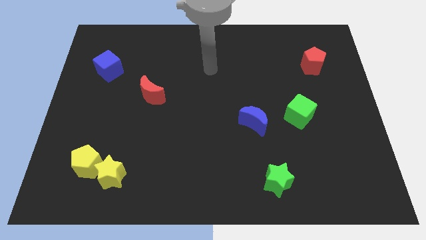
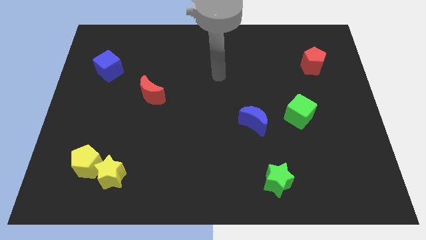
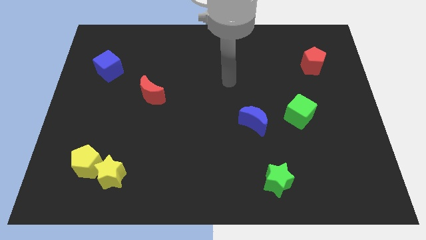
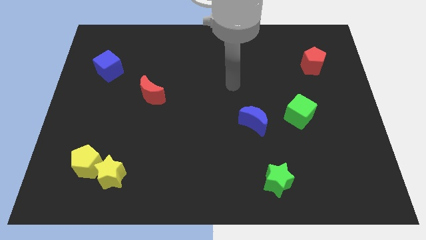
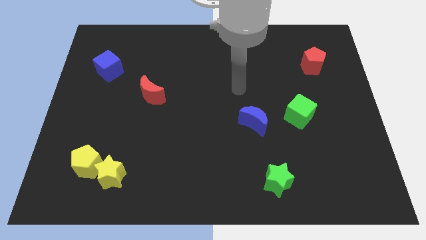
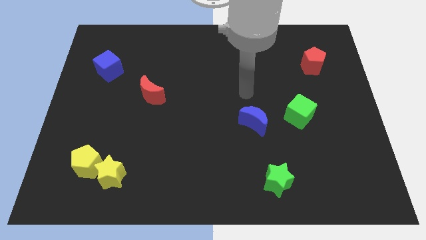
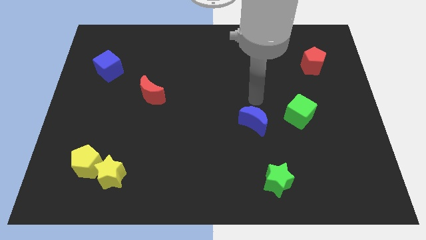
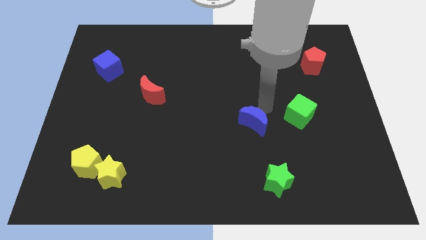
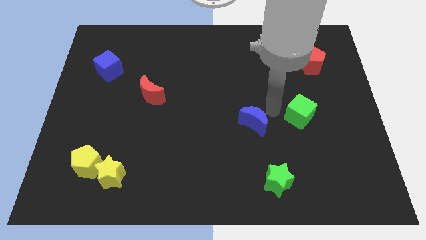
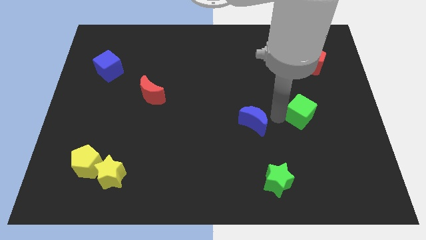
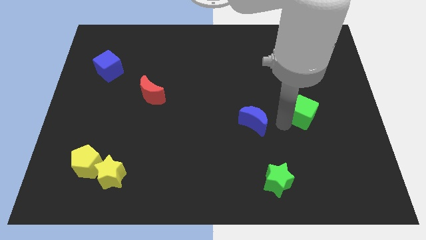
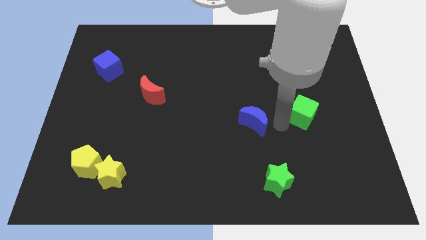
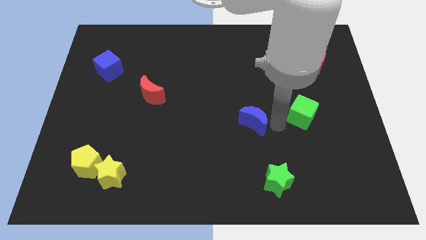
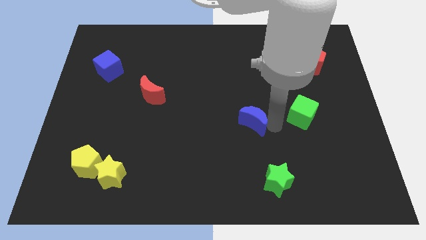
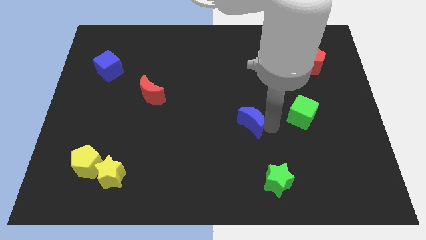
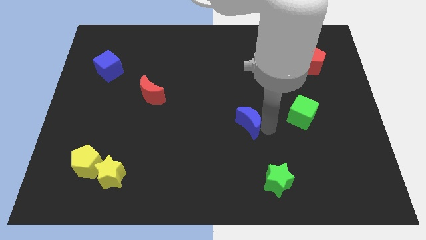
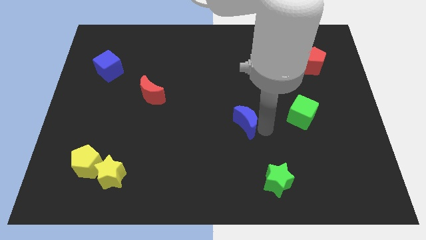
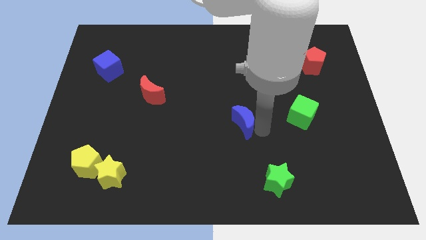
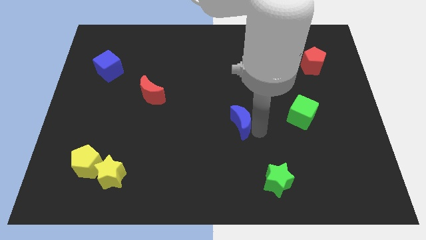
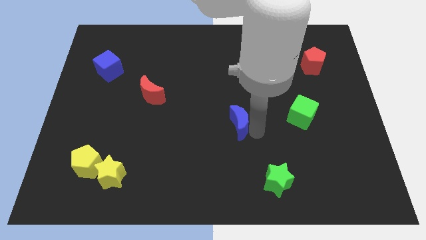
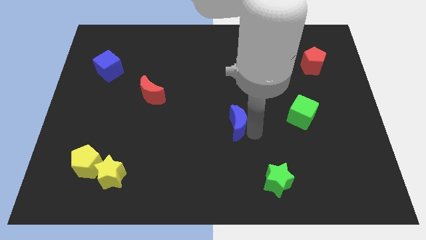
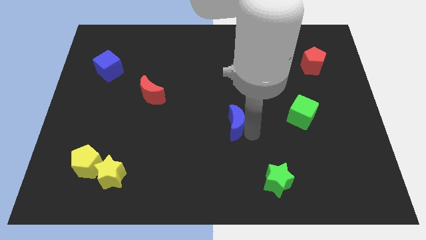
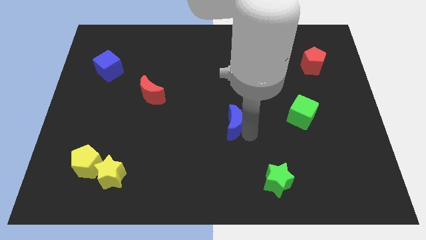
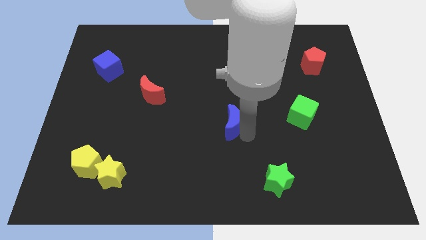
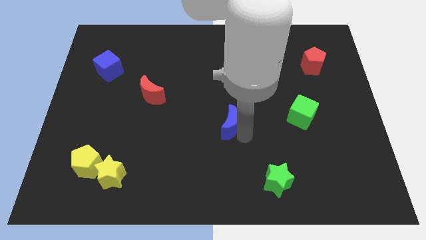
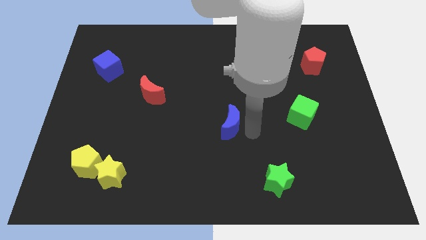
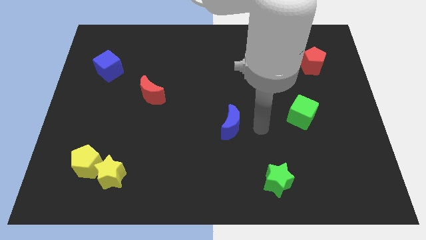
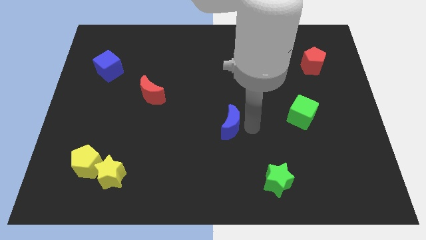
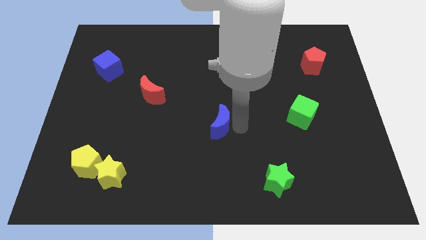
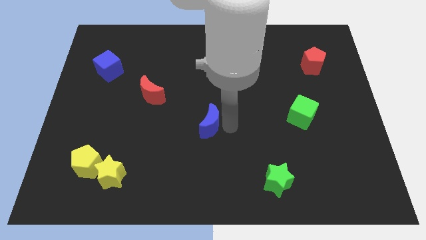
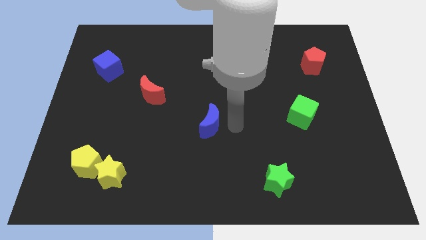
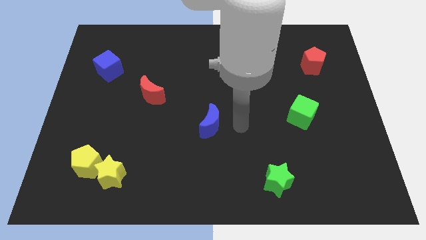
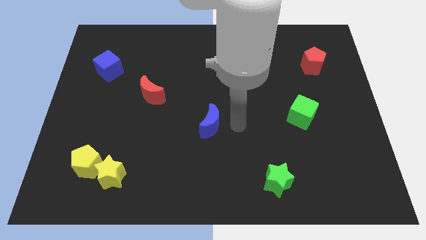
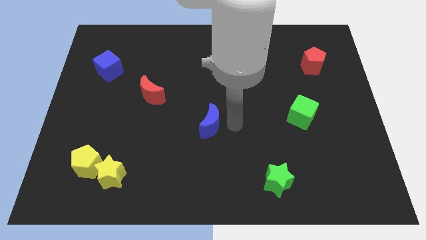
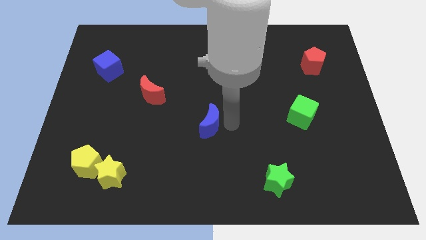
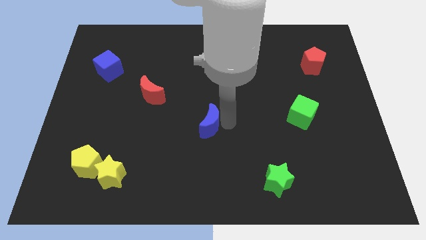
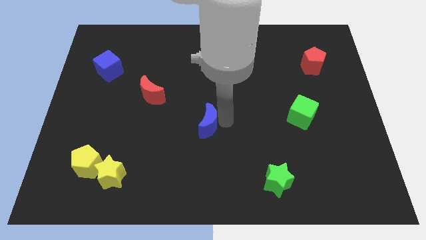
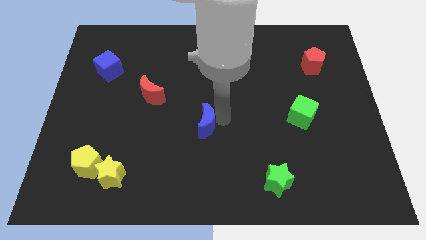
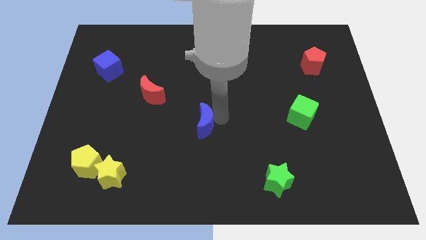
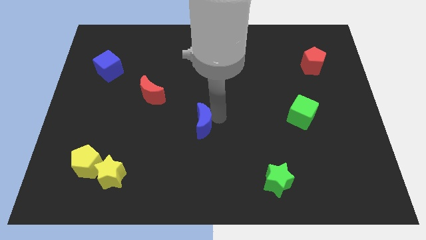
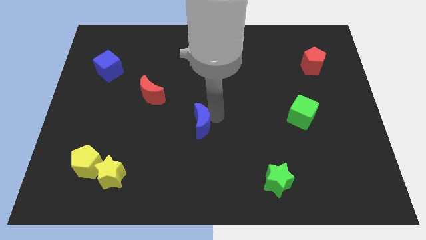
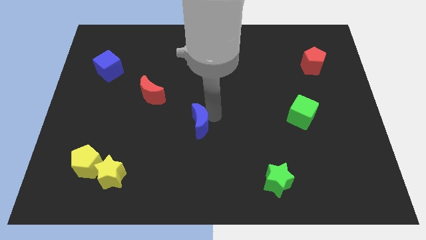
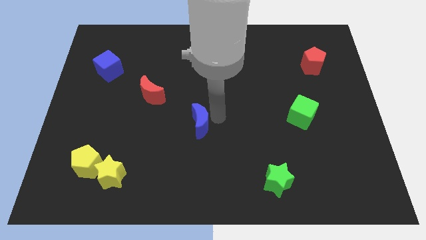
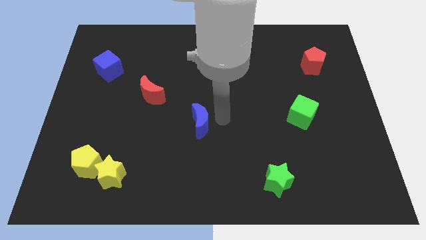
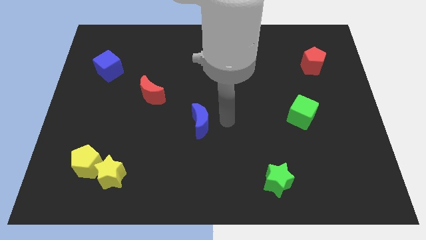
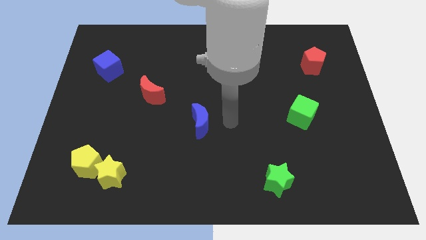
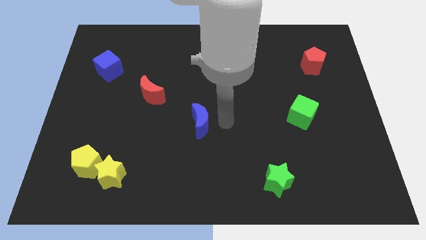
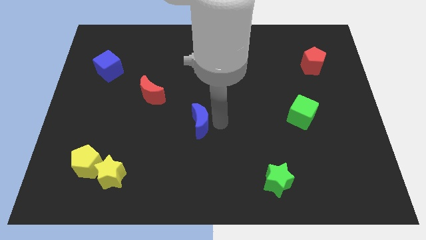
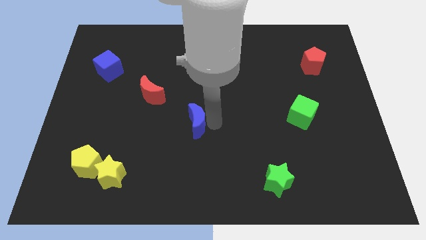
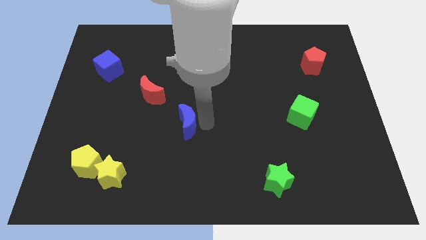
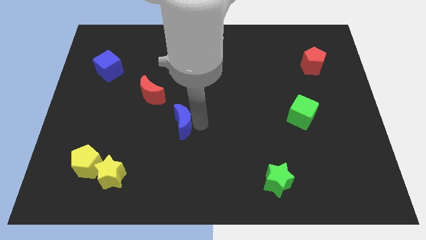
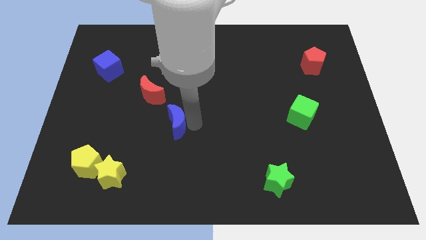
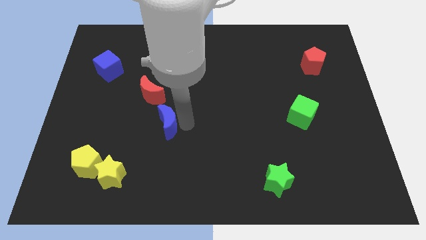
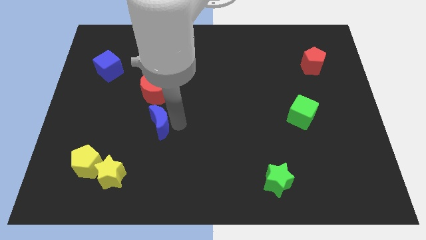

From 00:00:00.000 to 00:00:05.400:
push the blue moon left

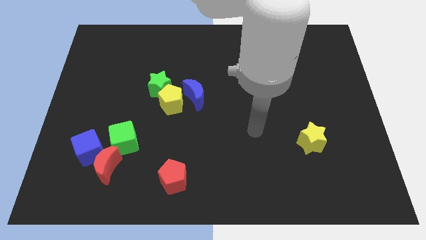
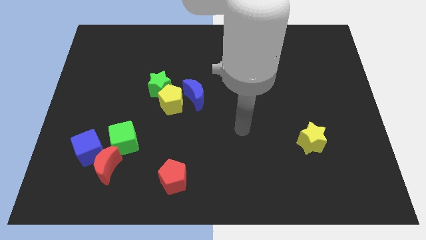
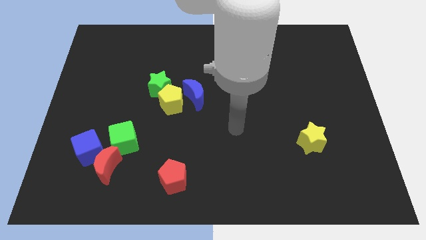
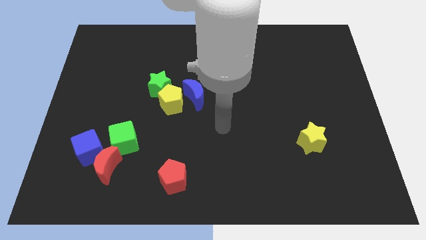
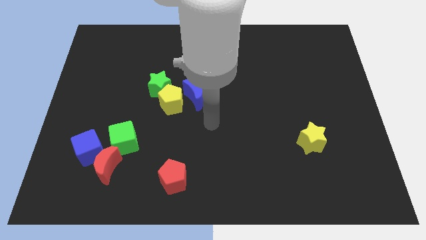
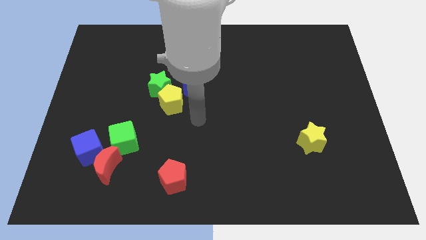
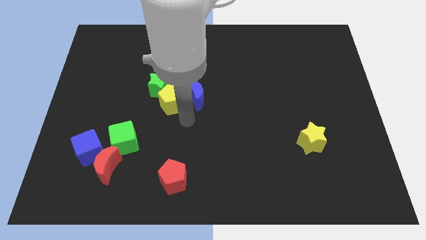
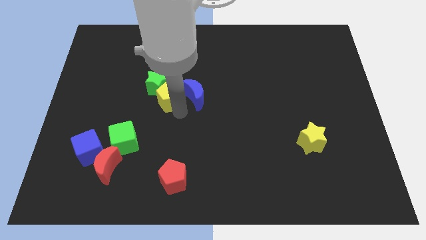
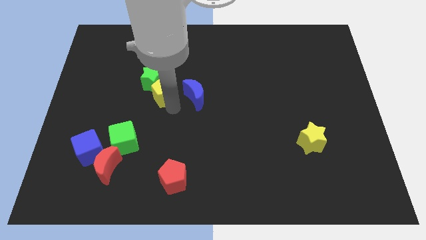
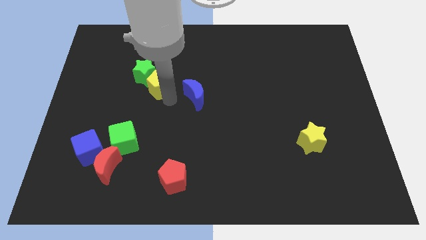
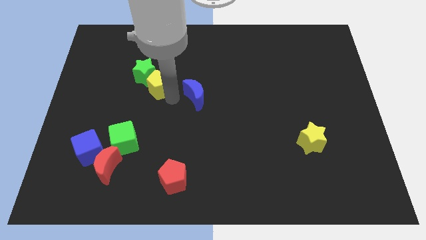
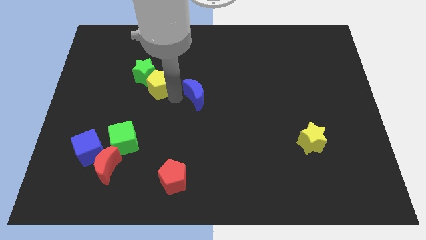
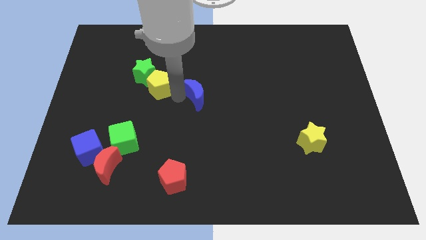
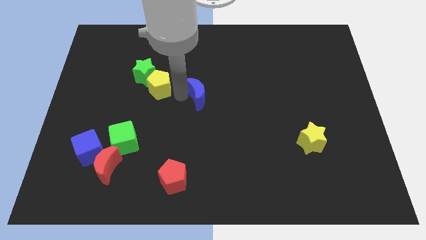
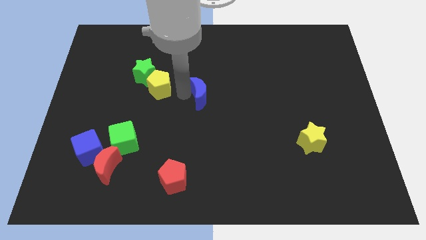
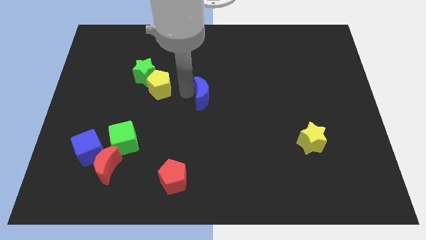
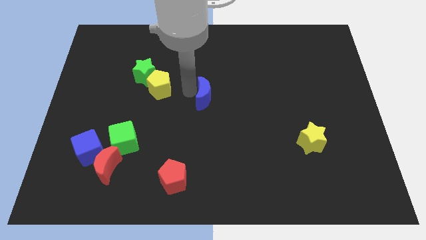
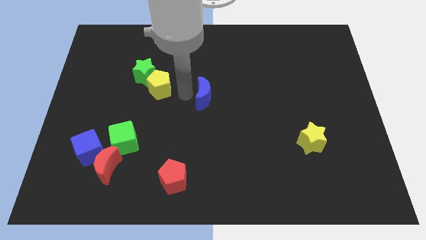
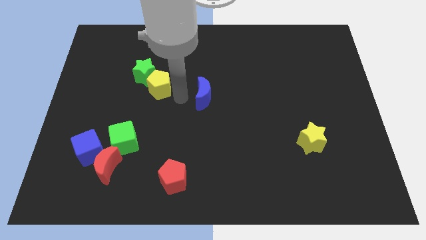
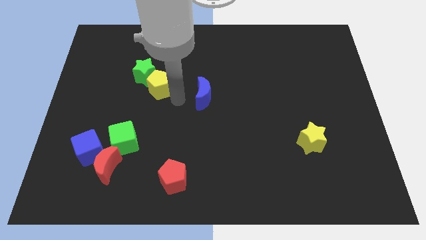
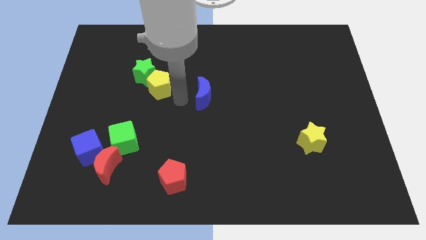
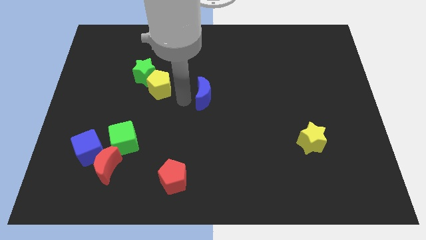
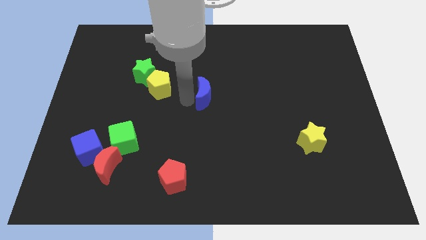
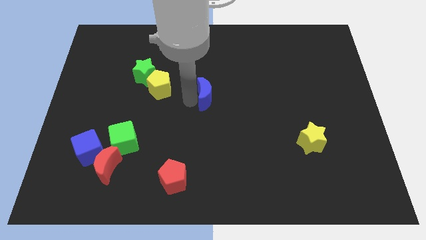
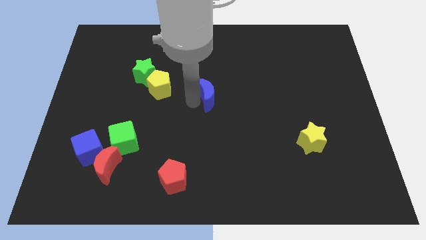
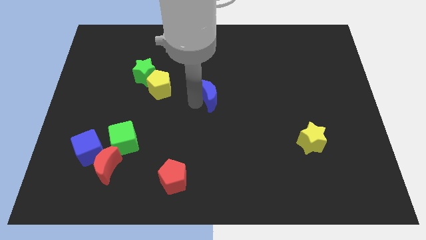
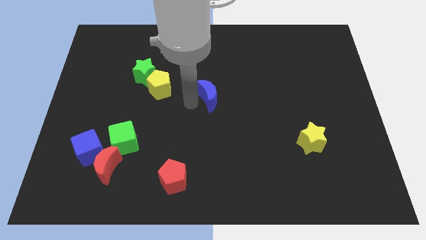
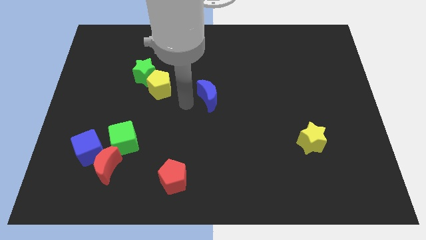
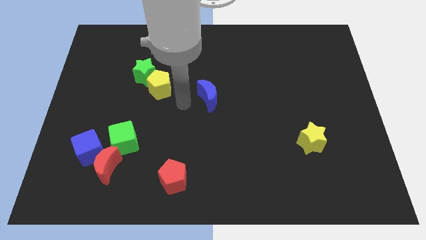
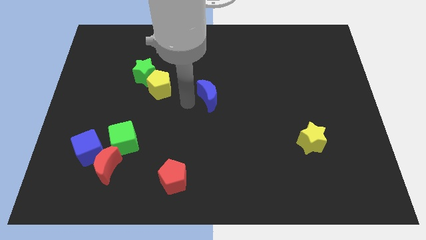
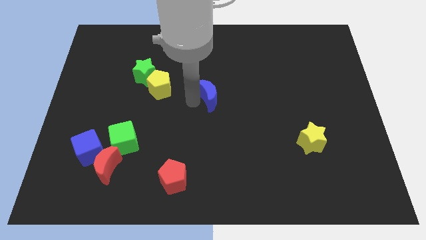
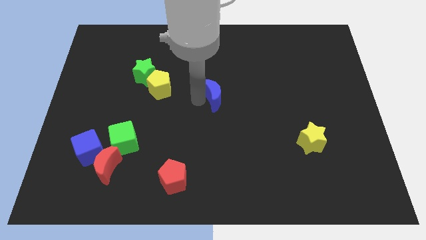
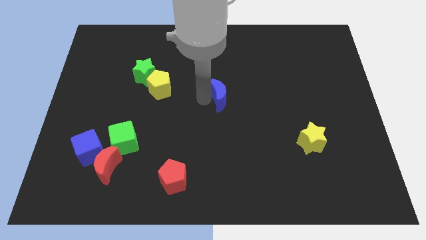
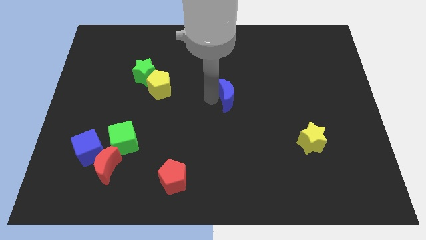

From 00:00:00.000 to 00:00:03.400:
slightly move the blue moon right
